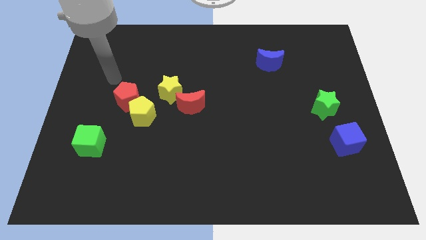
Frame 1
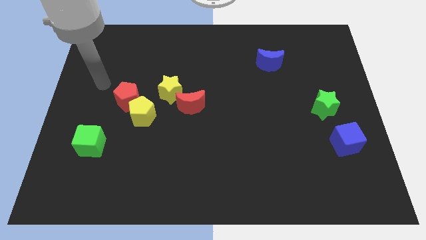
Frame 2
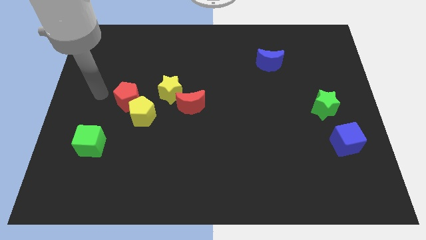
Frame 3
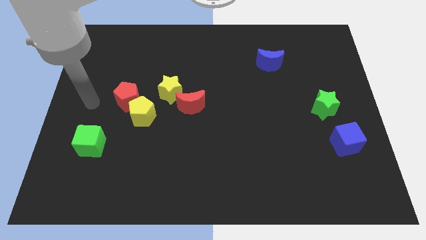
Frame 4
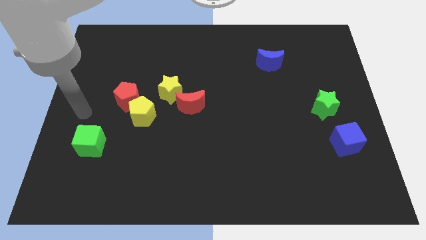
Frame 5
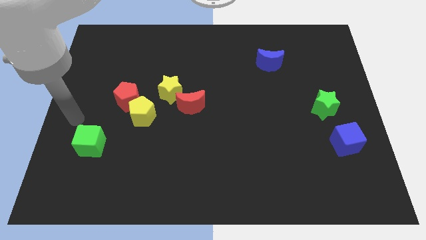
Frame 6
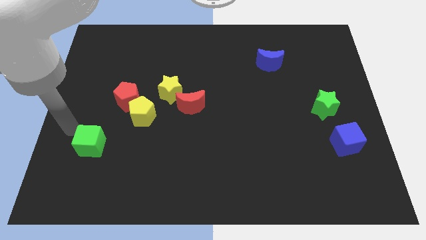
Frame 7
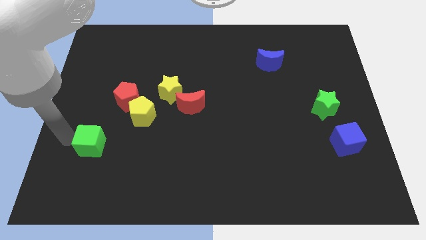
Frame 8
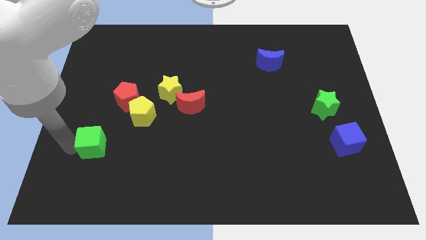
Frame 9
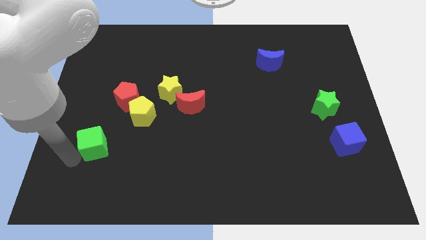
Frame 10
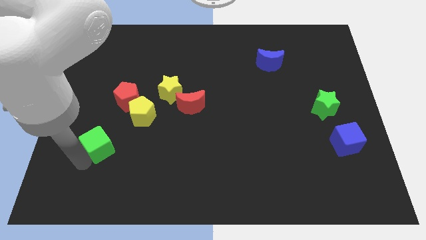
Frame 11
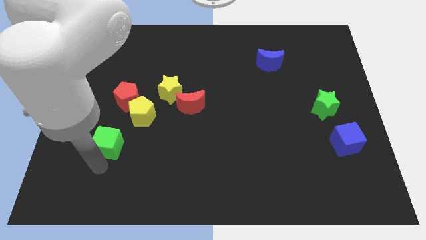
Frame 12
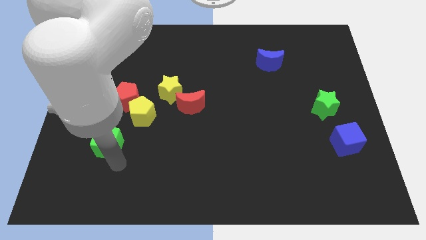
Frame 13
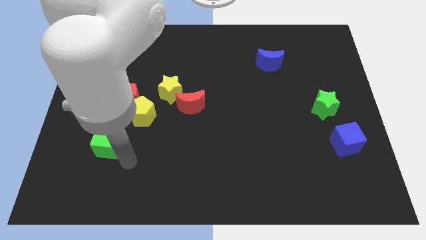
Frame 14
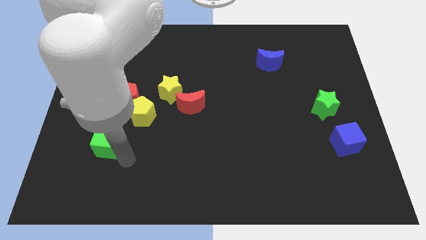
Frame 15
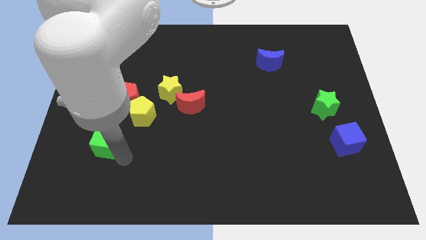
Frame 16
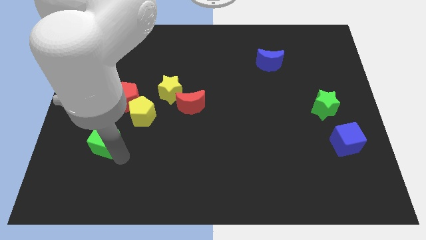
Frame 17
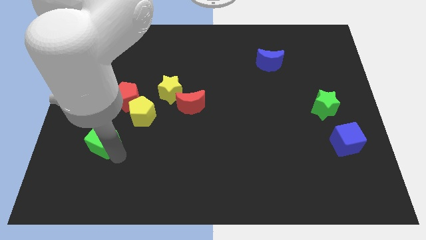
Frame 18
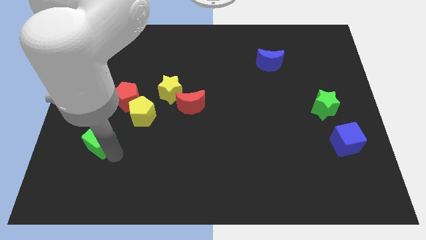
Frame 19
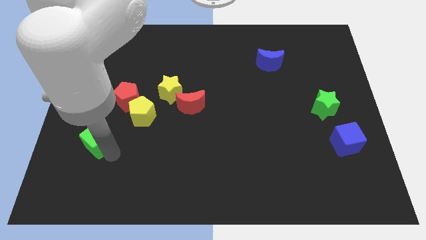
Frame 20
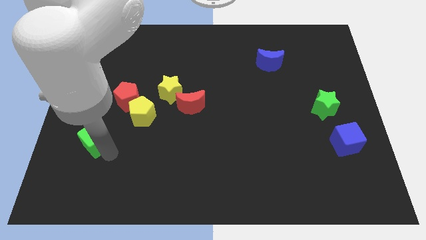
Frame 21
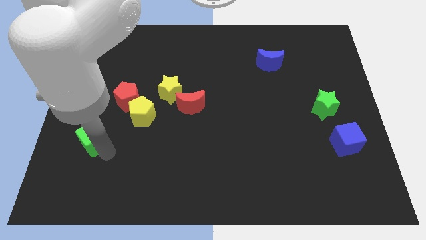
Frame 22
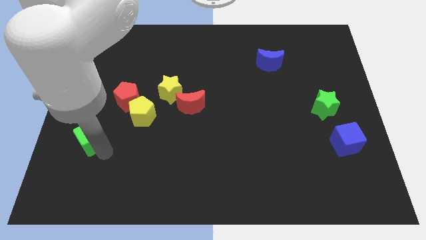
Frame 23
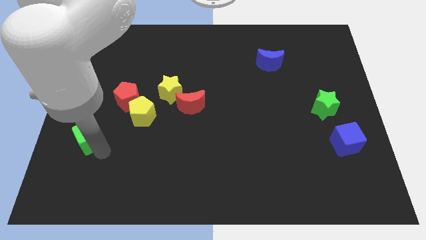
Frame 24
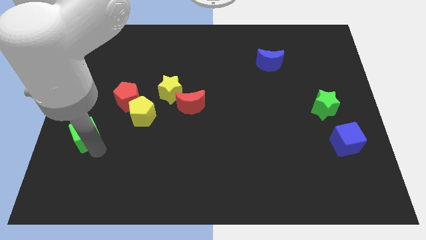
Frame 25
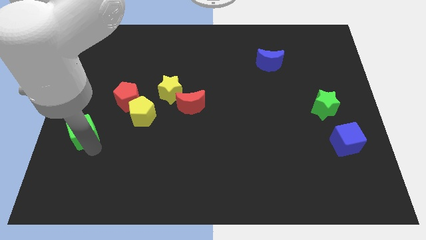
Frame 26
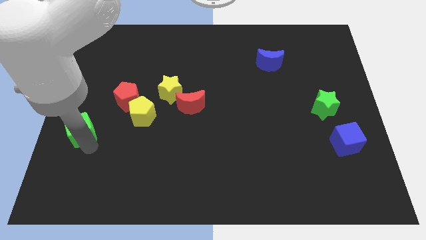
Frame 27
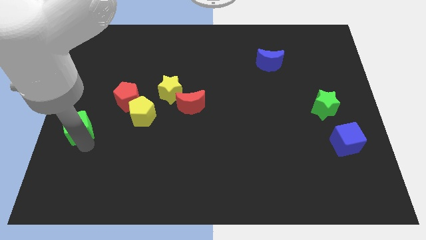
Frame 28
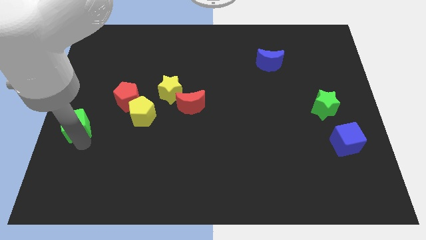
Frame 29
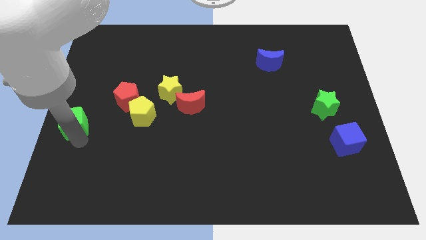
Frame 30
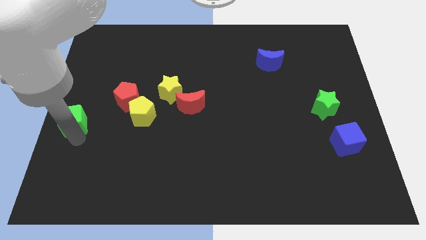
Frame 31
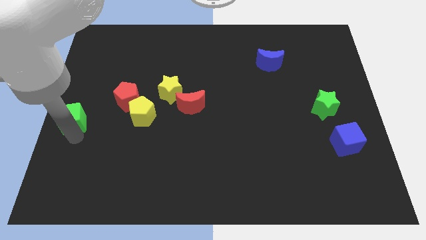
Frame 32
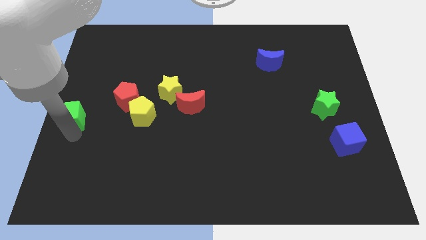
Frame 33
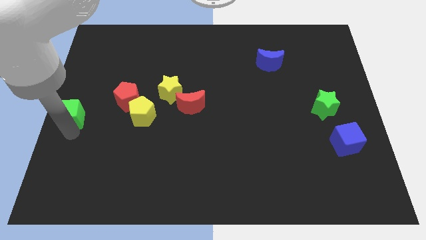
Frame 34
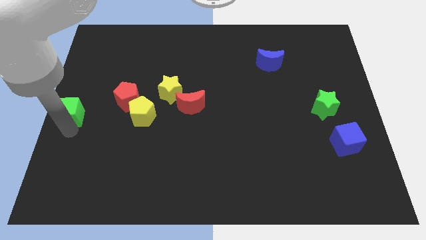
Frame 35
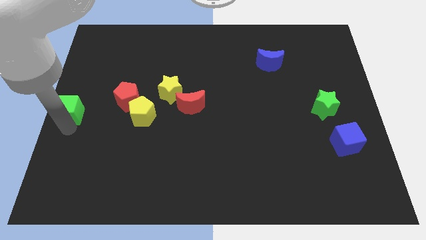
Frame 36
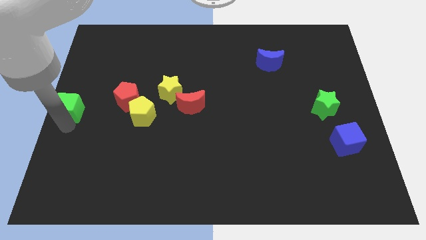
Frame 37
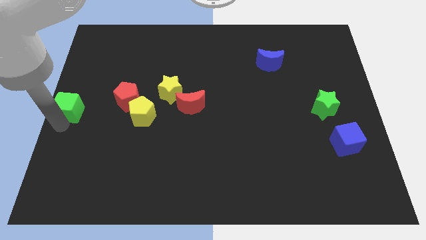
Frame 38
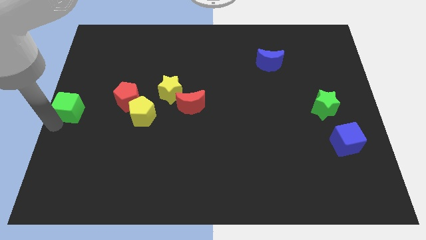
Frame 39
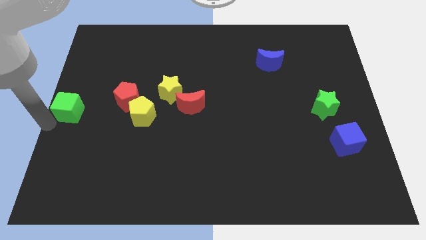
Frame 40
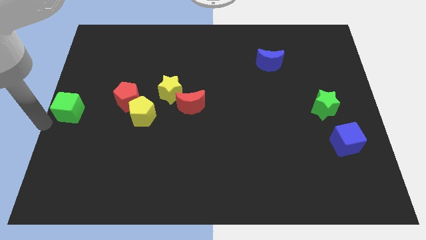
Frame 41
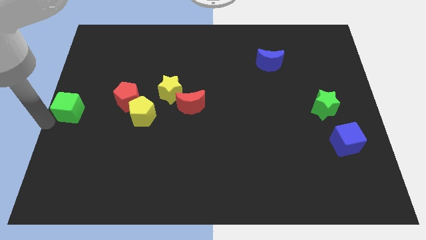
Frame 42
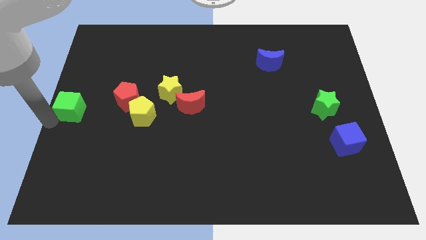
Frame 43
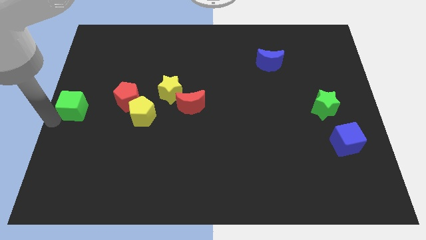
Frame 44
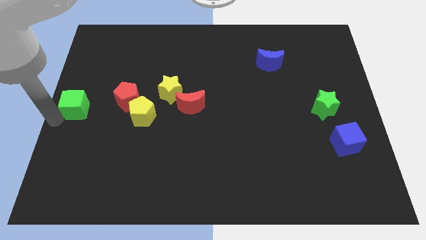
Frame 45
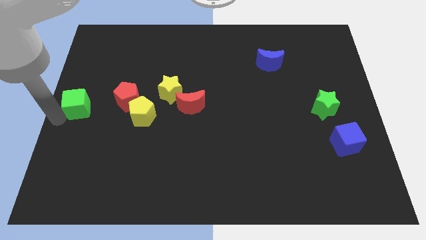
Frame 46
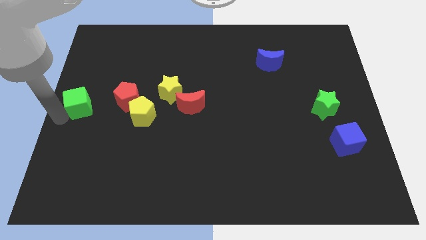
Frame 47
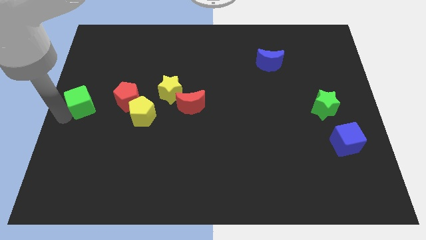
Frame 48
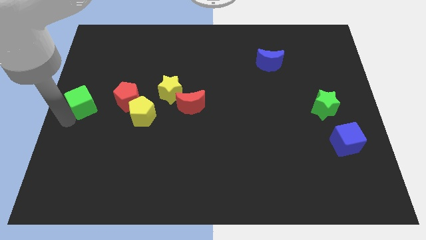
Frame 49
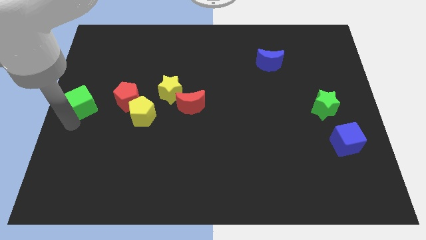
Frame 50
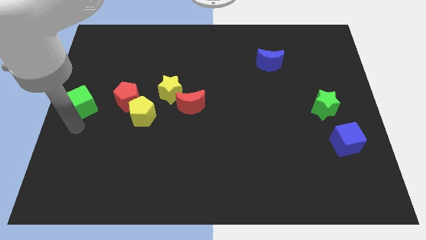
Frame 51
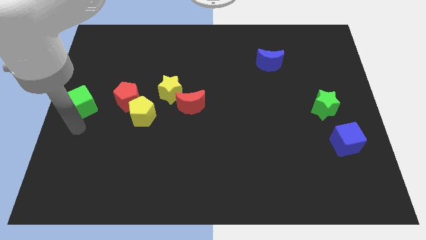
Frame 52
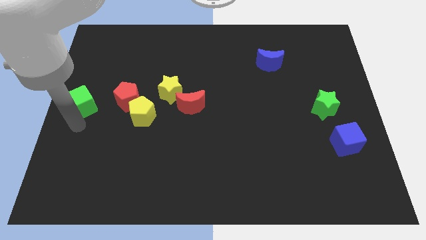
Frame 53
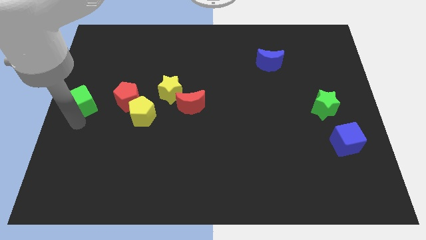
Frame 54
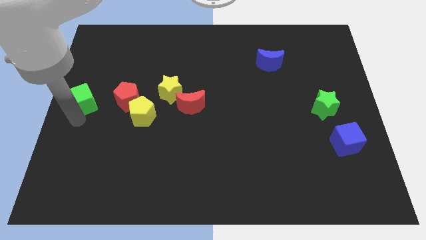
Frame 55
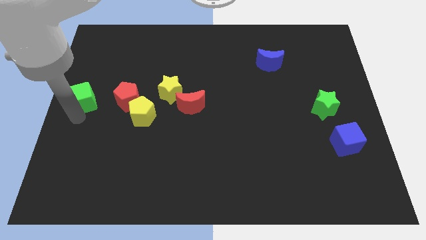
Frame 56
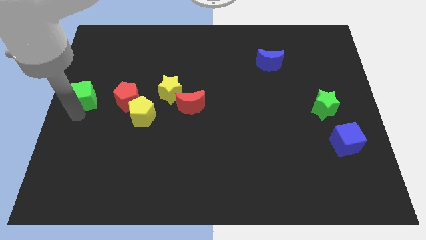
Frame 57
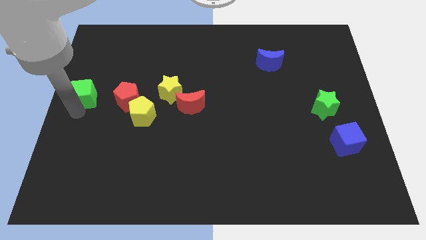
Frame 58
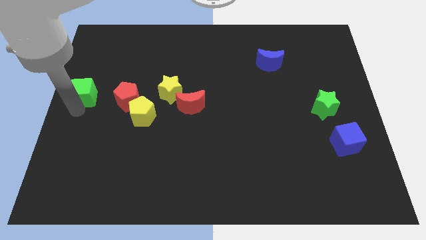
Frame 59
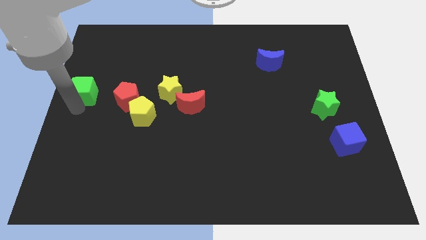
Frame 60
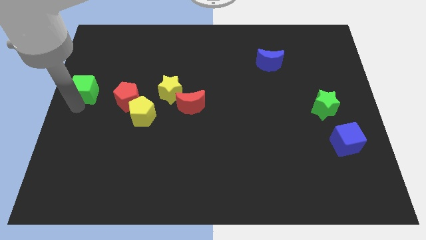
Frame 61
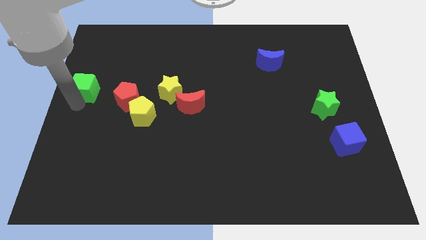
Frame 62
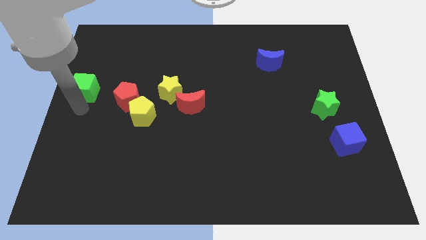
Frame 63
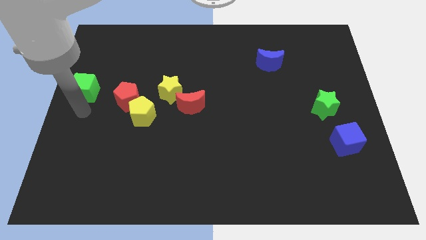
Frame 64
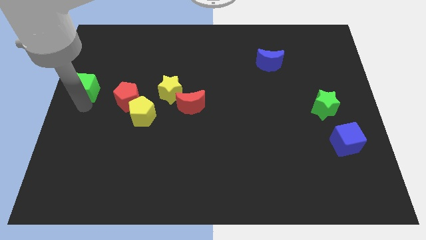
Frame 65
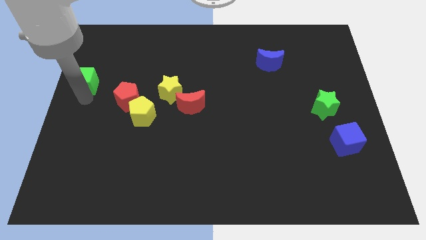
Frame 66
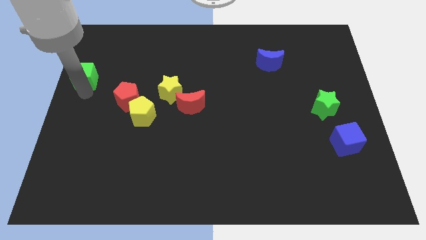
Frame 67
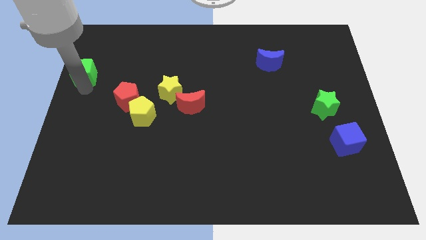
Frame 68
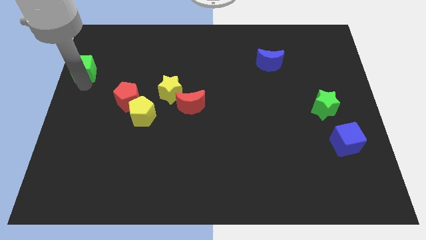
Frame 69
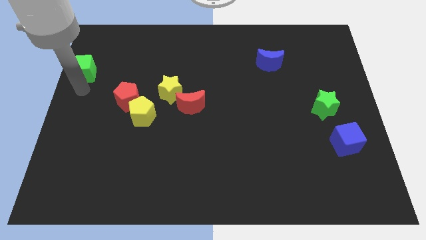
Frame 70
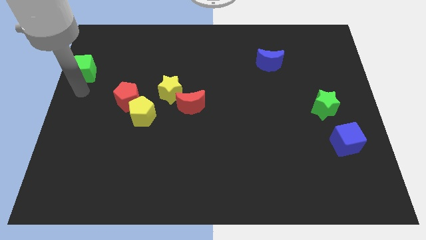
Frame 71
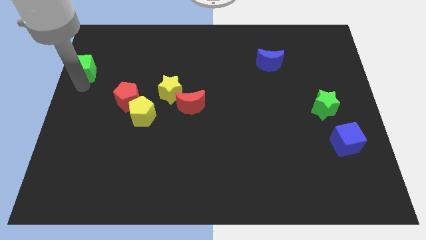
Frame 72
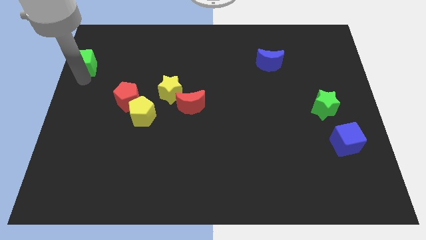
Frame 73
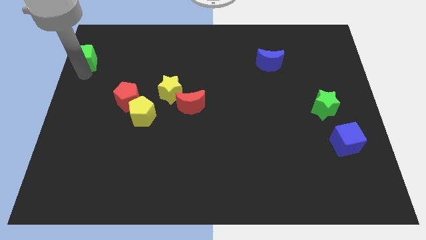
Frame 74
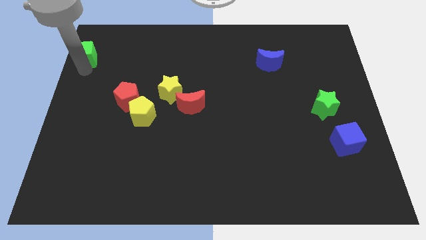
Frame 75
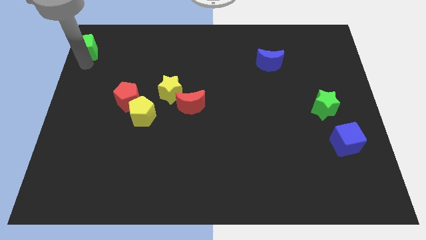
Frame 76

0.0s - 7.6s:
push the green cube to the top left of the board
